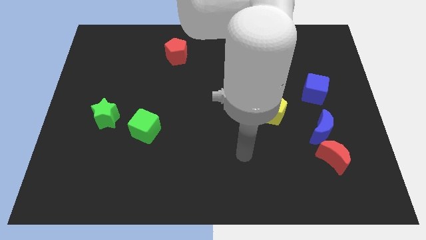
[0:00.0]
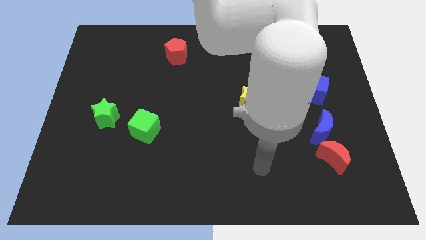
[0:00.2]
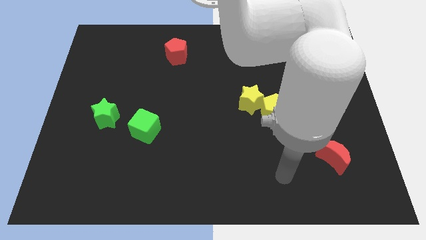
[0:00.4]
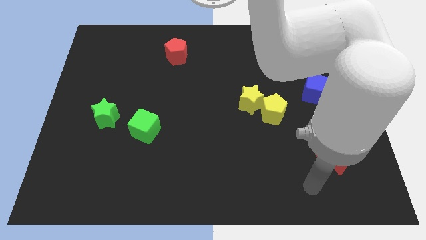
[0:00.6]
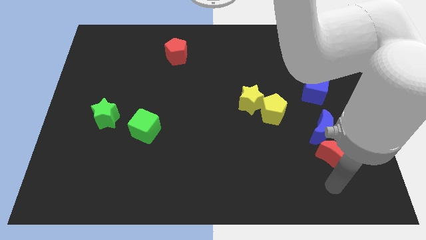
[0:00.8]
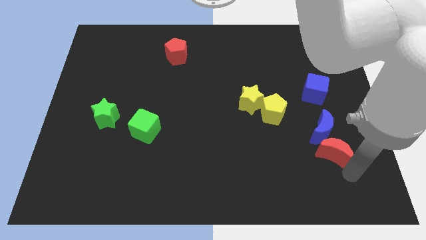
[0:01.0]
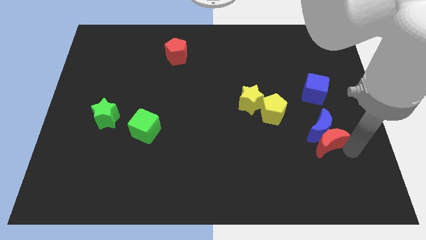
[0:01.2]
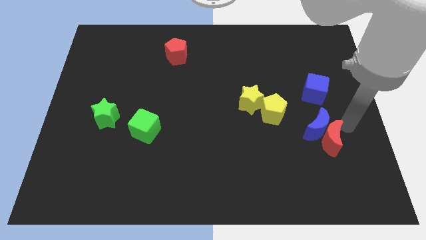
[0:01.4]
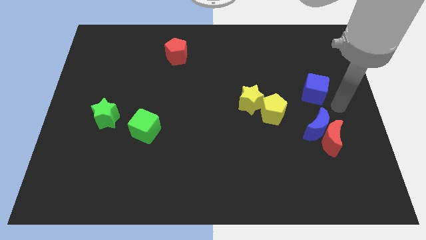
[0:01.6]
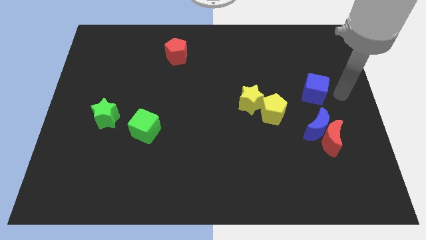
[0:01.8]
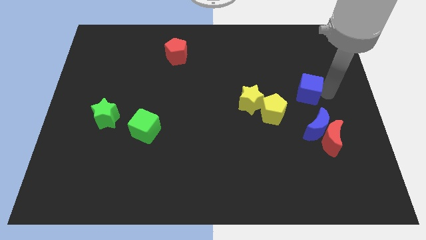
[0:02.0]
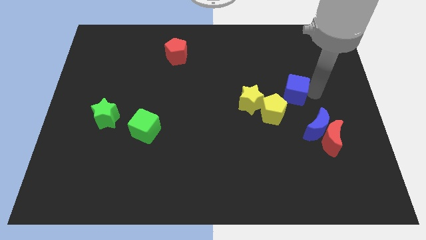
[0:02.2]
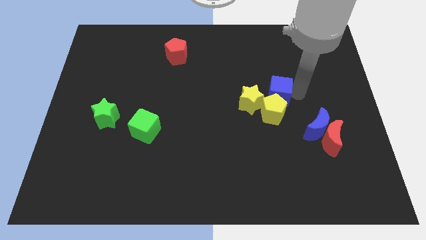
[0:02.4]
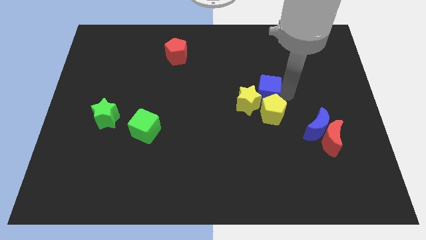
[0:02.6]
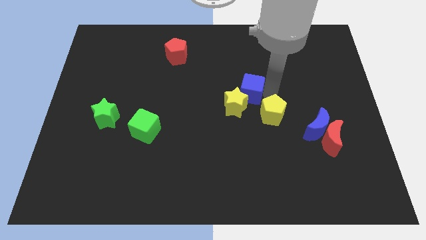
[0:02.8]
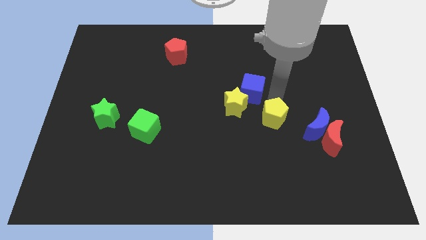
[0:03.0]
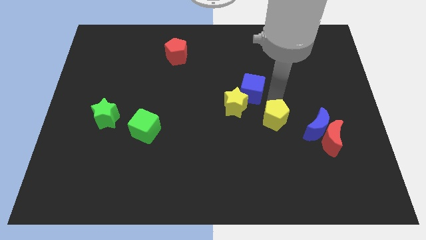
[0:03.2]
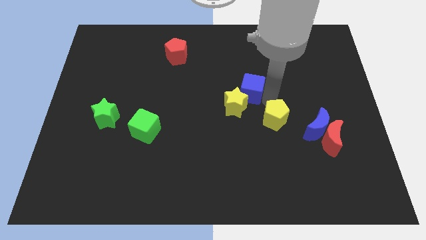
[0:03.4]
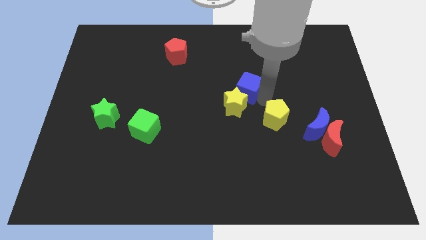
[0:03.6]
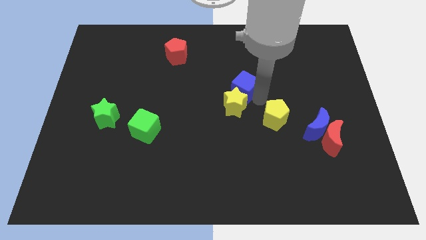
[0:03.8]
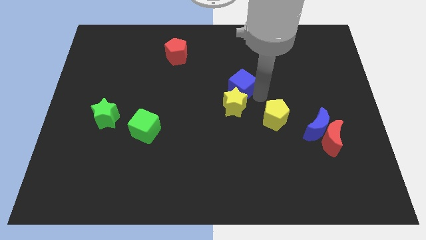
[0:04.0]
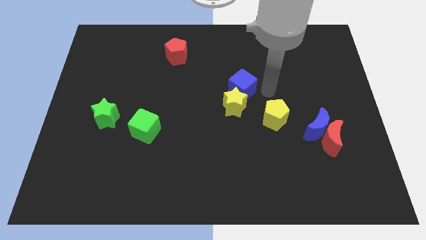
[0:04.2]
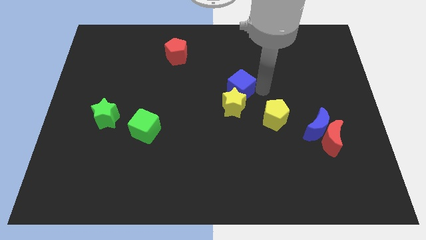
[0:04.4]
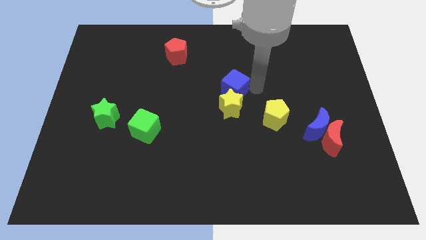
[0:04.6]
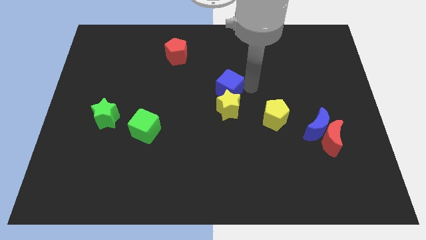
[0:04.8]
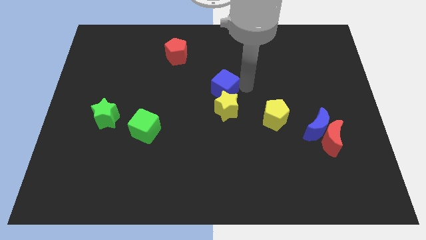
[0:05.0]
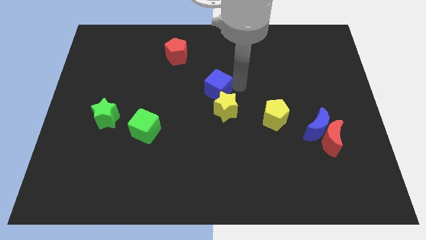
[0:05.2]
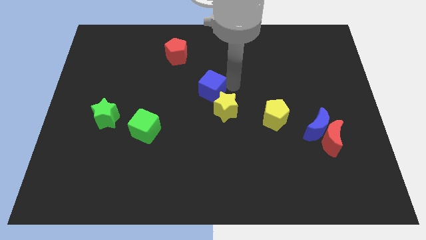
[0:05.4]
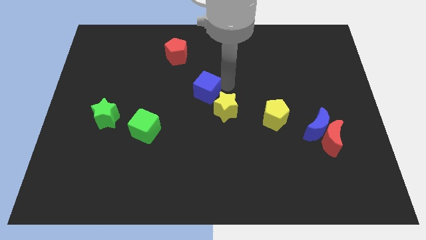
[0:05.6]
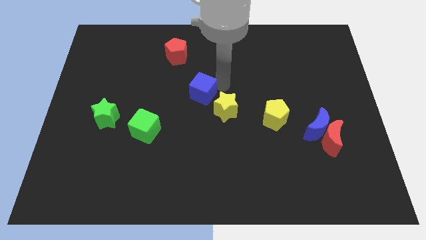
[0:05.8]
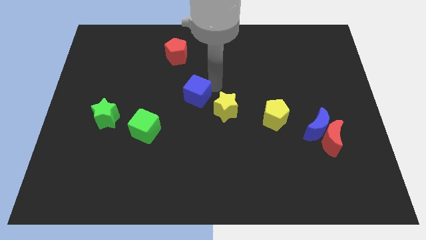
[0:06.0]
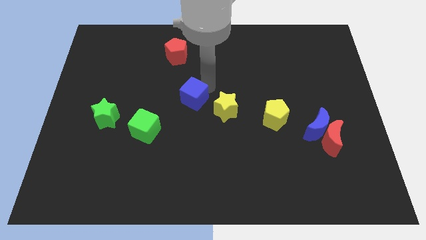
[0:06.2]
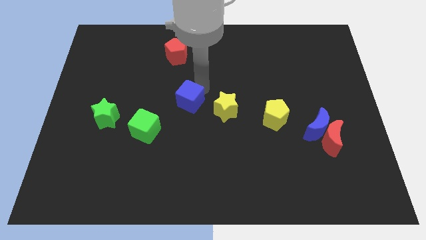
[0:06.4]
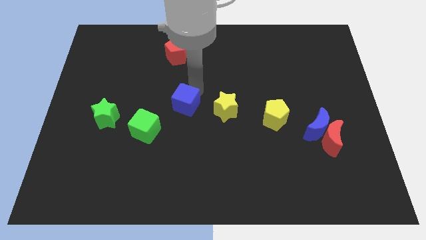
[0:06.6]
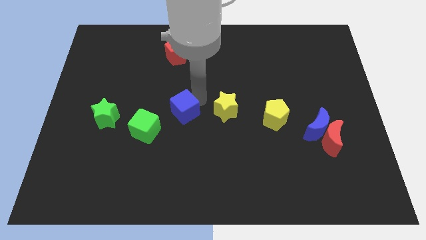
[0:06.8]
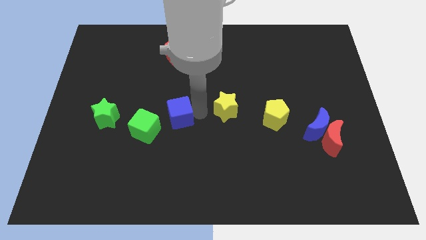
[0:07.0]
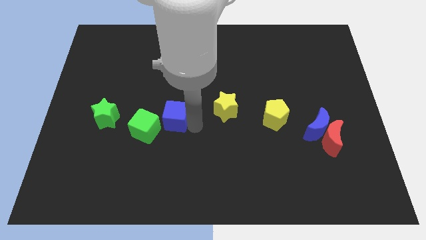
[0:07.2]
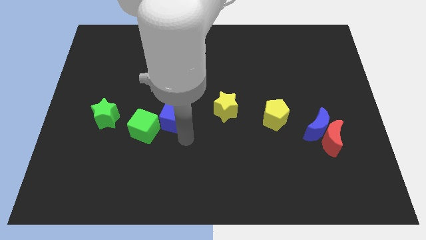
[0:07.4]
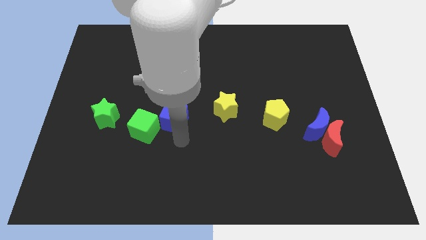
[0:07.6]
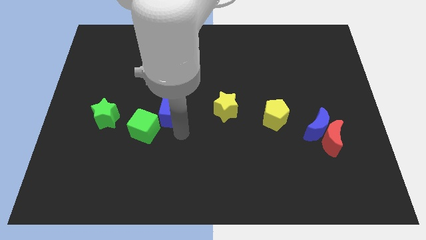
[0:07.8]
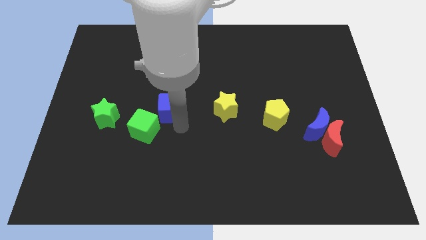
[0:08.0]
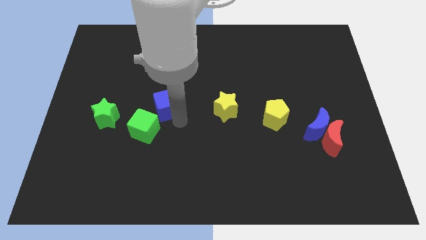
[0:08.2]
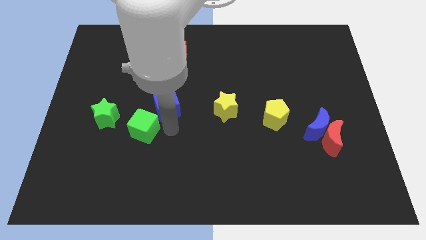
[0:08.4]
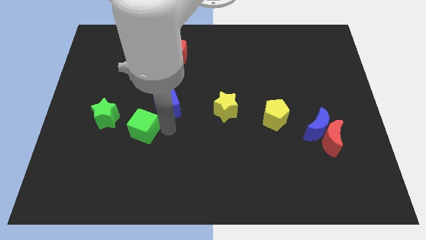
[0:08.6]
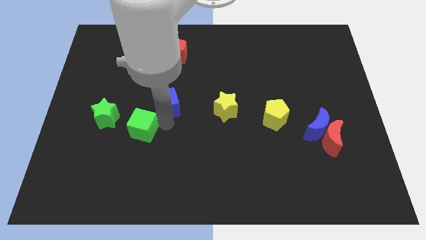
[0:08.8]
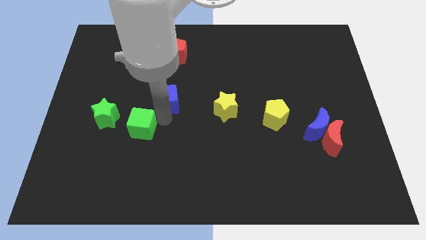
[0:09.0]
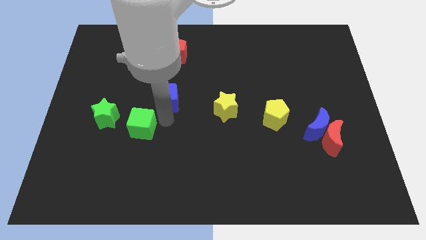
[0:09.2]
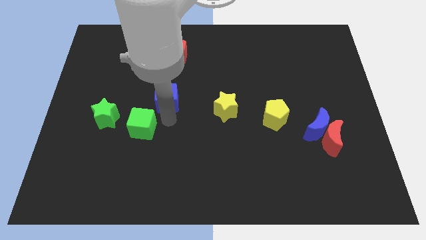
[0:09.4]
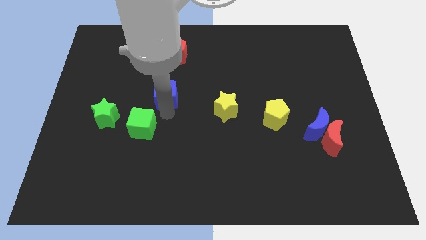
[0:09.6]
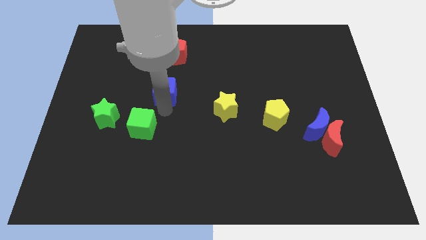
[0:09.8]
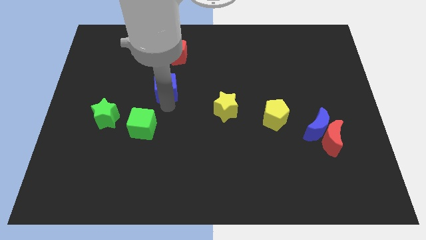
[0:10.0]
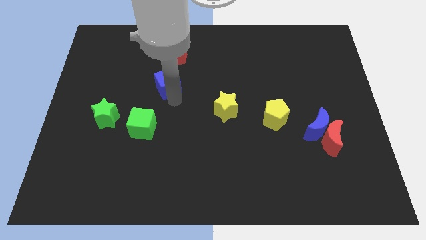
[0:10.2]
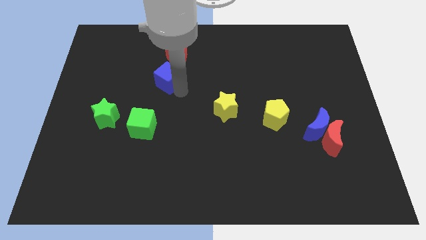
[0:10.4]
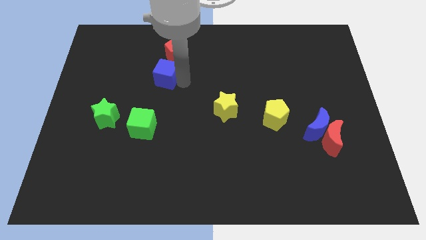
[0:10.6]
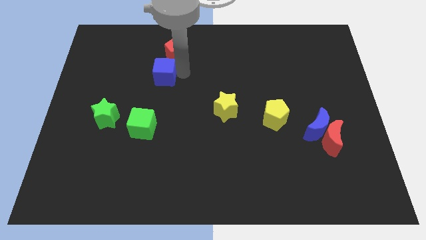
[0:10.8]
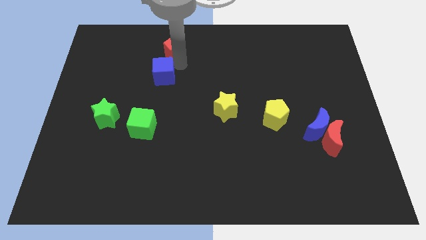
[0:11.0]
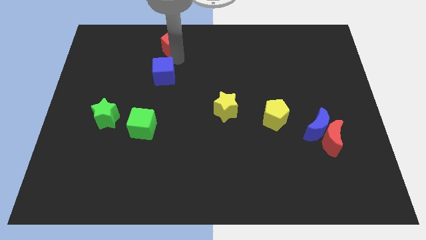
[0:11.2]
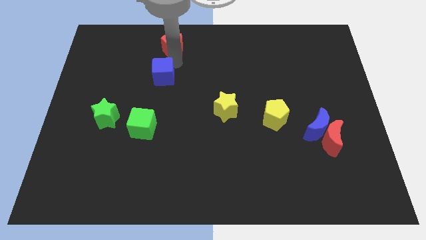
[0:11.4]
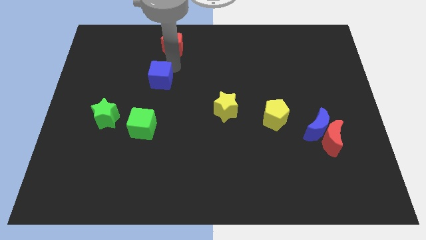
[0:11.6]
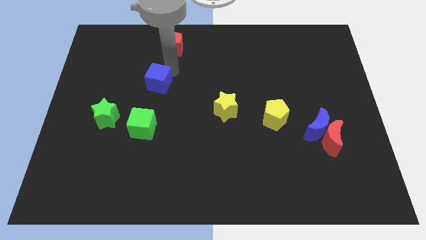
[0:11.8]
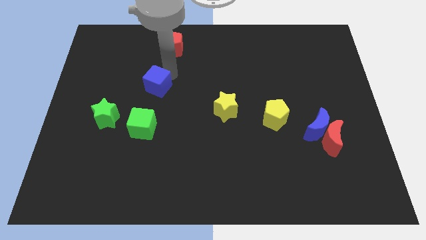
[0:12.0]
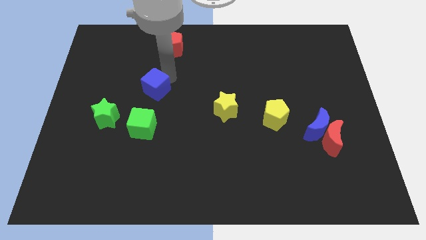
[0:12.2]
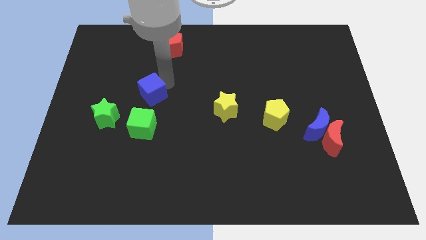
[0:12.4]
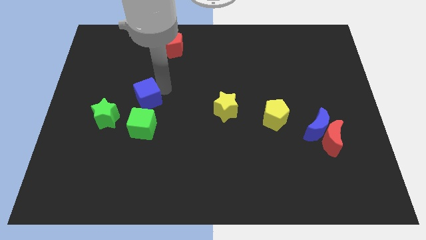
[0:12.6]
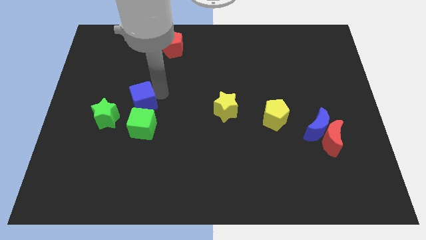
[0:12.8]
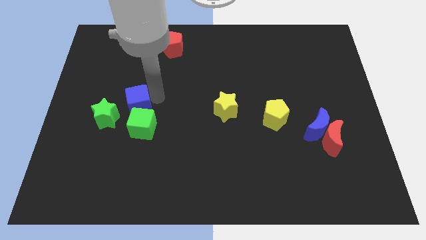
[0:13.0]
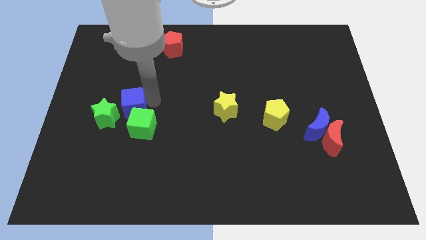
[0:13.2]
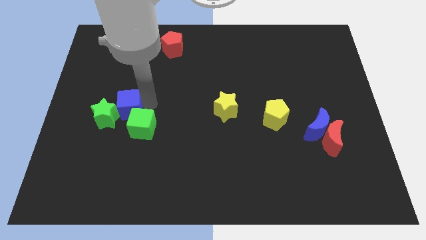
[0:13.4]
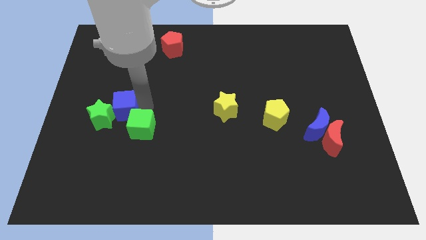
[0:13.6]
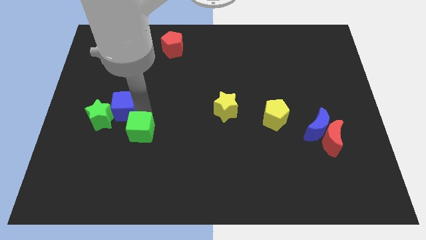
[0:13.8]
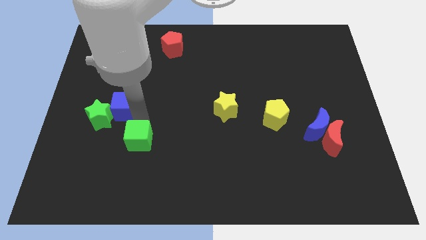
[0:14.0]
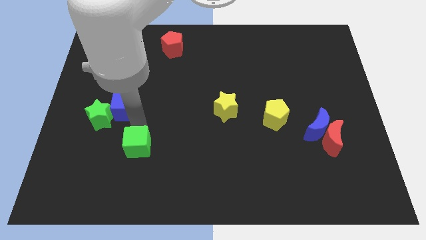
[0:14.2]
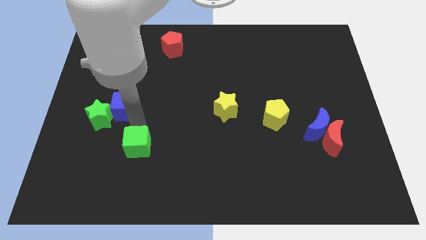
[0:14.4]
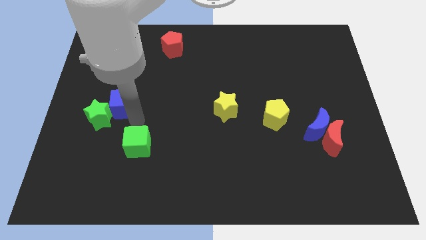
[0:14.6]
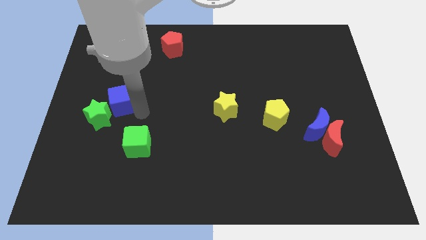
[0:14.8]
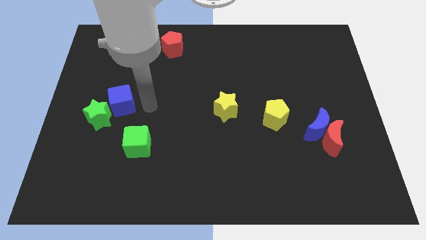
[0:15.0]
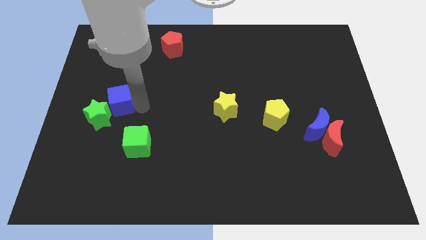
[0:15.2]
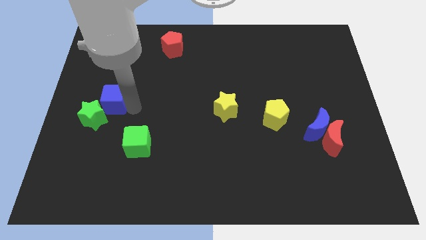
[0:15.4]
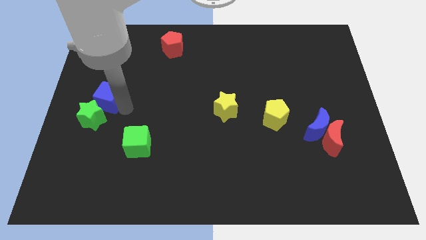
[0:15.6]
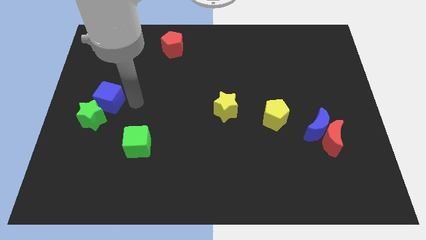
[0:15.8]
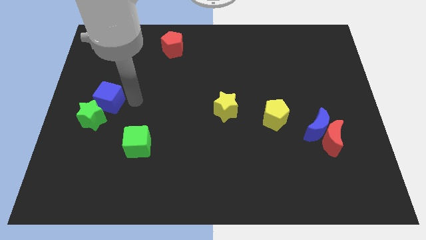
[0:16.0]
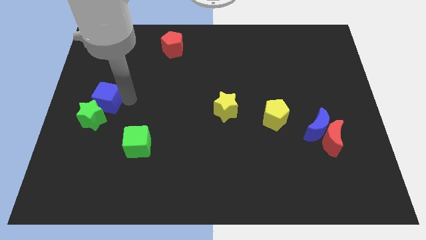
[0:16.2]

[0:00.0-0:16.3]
put the blue cube to the center left
